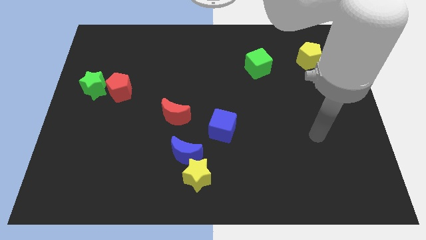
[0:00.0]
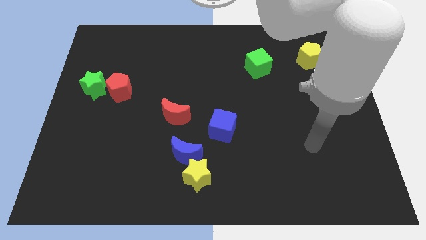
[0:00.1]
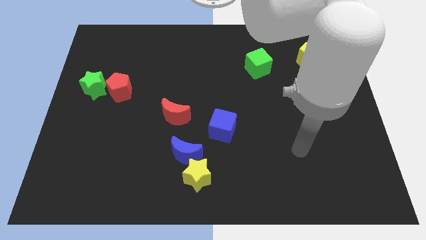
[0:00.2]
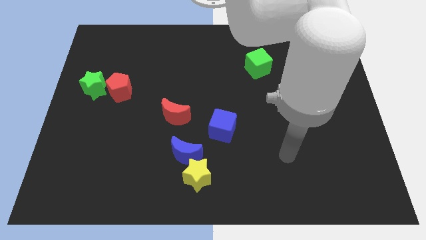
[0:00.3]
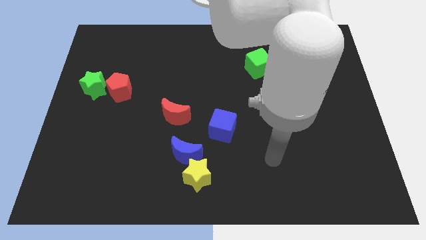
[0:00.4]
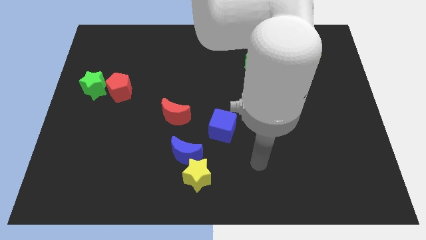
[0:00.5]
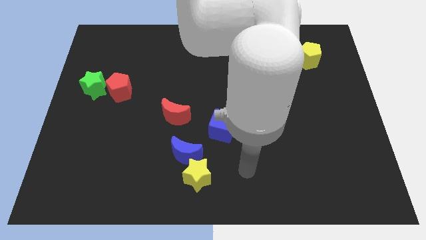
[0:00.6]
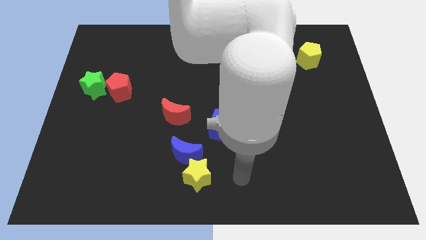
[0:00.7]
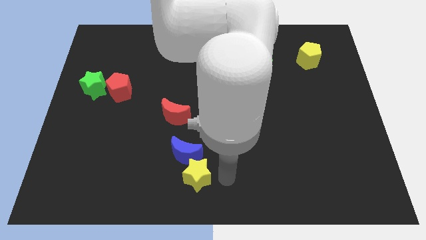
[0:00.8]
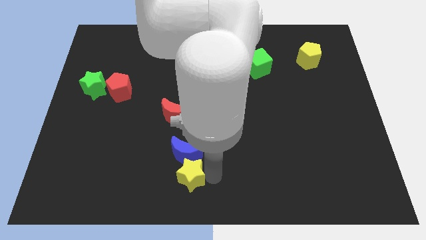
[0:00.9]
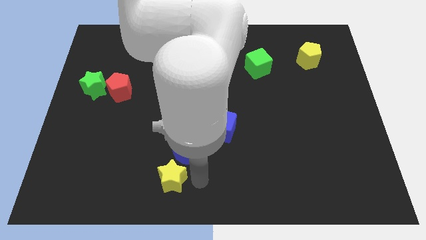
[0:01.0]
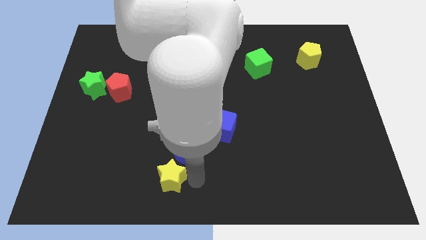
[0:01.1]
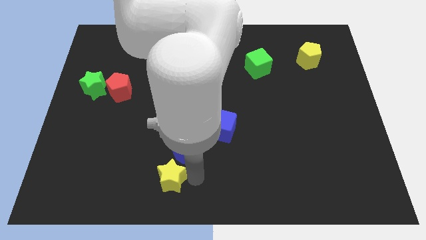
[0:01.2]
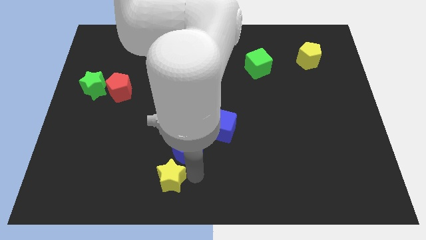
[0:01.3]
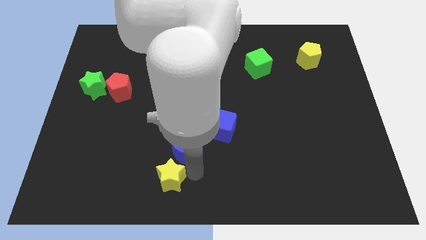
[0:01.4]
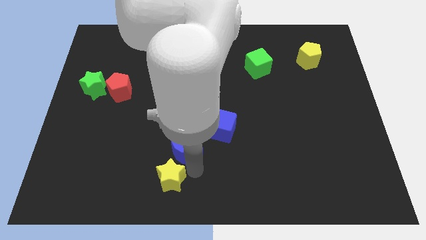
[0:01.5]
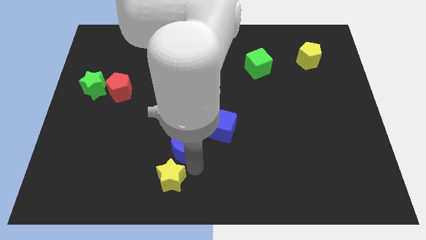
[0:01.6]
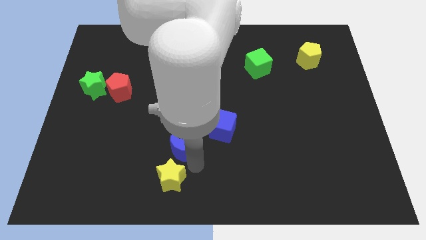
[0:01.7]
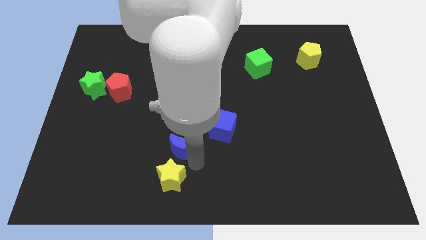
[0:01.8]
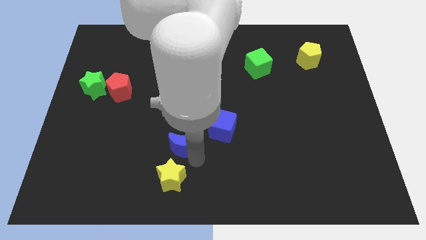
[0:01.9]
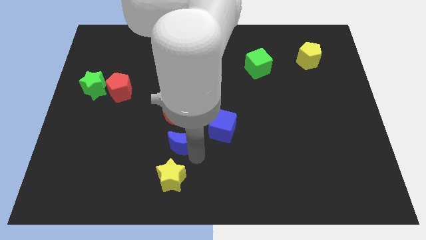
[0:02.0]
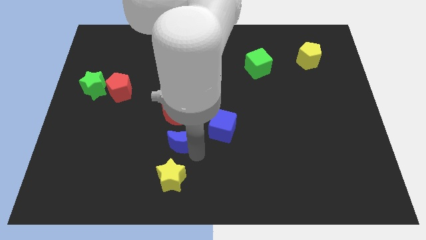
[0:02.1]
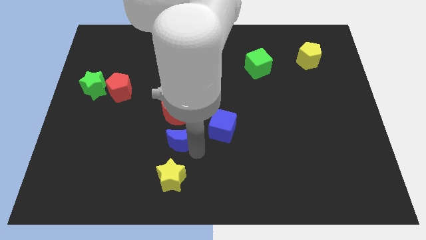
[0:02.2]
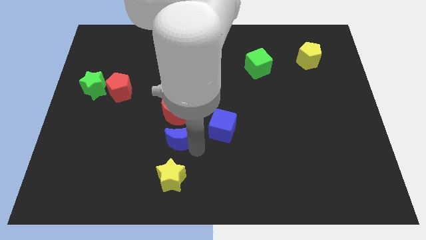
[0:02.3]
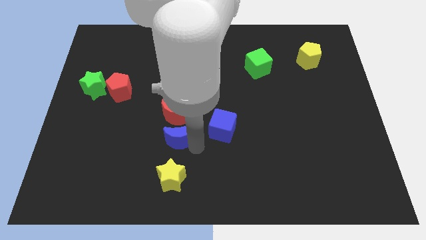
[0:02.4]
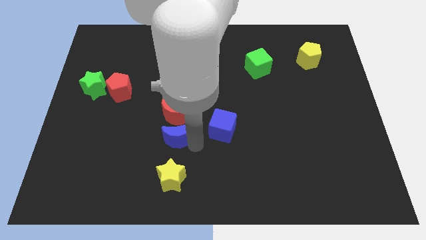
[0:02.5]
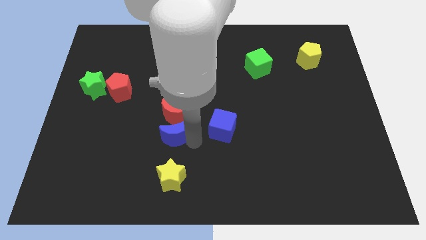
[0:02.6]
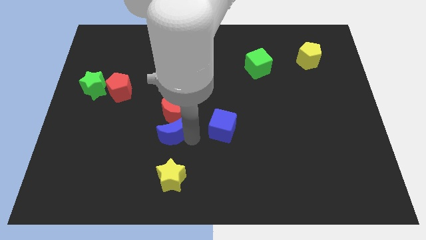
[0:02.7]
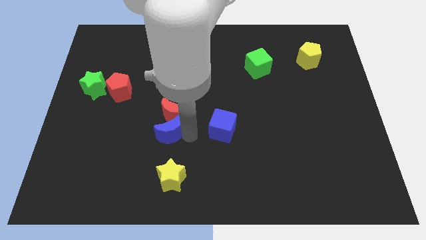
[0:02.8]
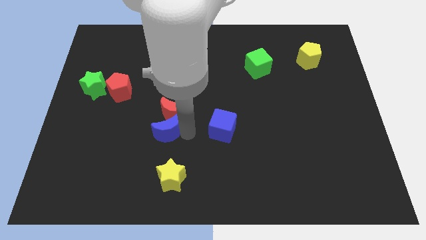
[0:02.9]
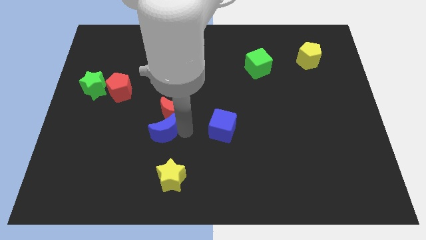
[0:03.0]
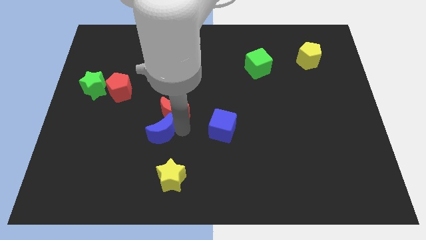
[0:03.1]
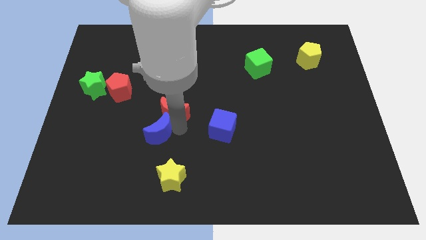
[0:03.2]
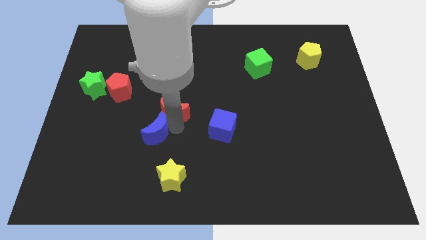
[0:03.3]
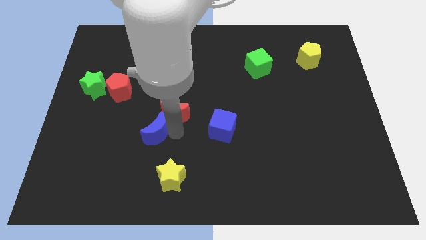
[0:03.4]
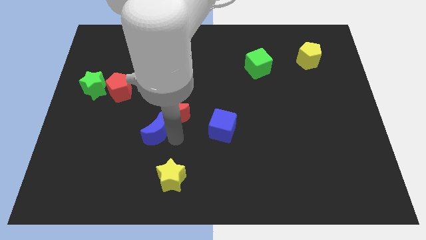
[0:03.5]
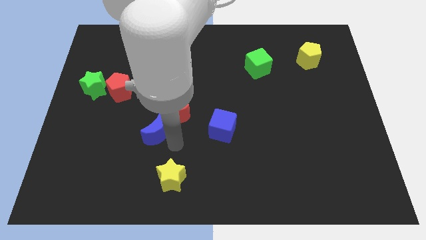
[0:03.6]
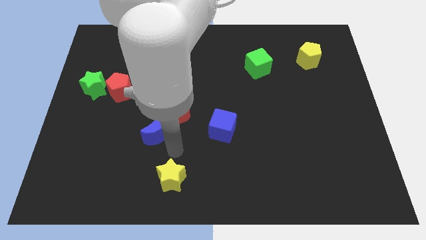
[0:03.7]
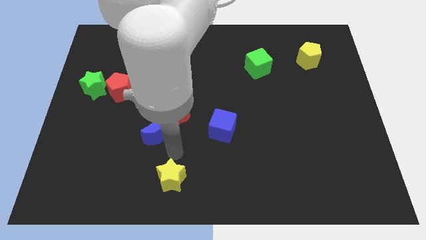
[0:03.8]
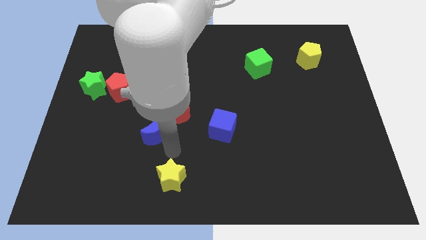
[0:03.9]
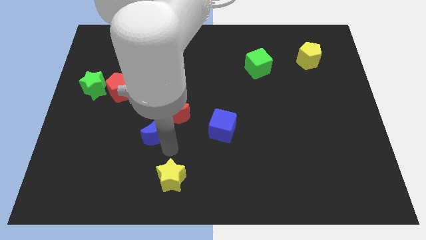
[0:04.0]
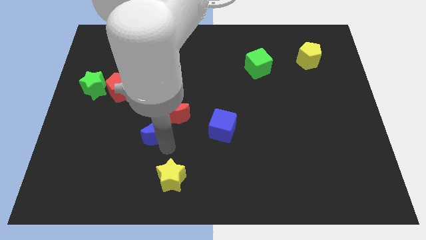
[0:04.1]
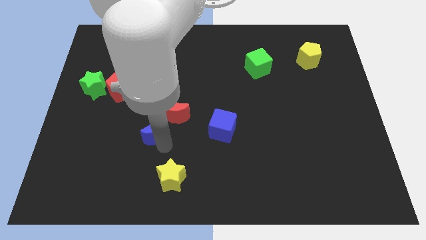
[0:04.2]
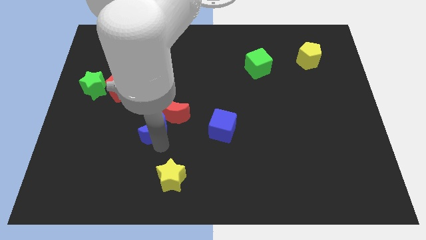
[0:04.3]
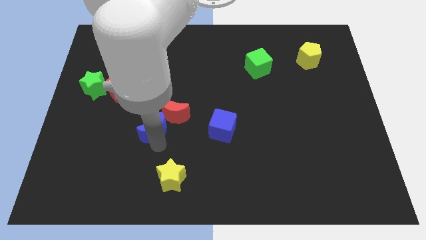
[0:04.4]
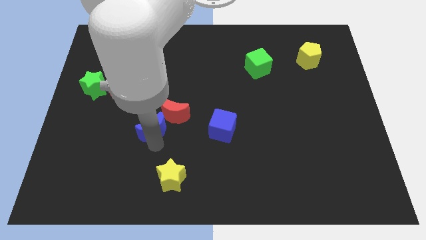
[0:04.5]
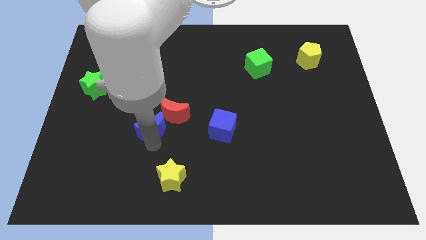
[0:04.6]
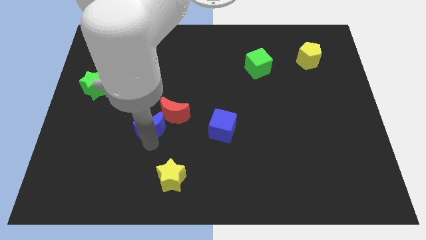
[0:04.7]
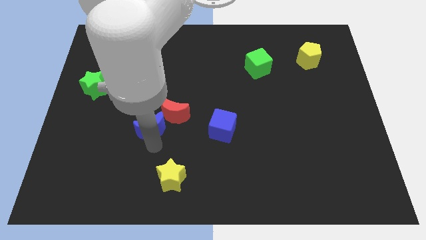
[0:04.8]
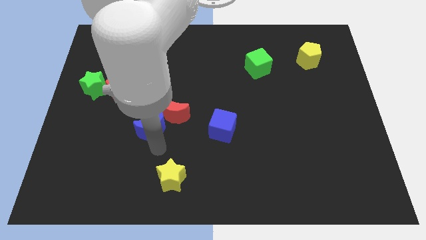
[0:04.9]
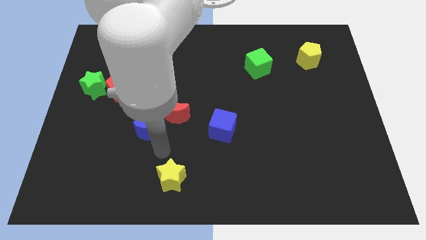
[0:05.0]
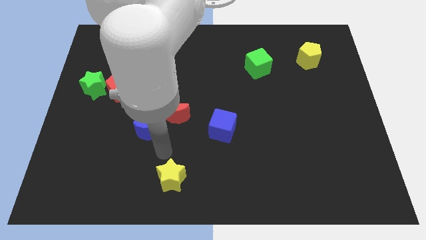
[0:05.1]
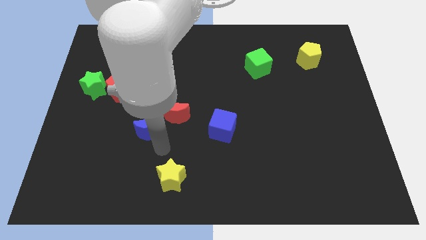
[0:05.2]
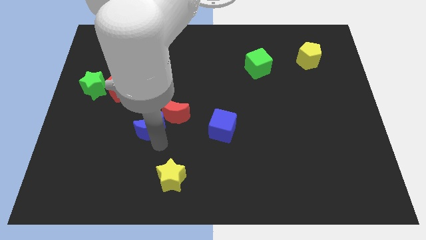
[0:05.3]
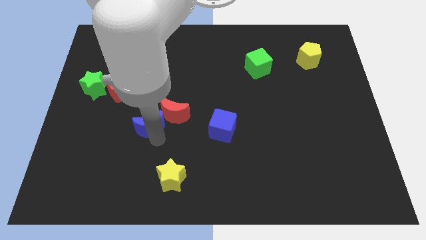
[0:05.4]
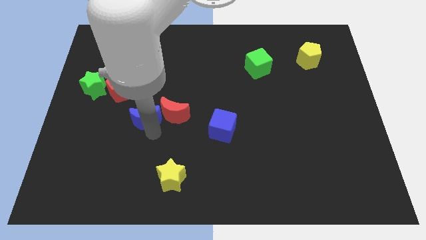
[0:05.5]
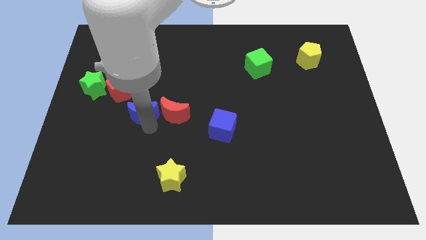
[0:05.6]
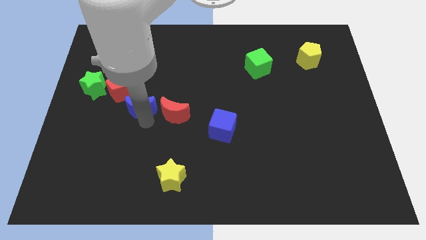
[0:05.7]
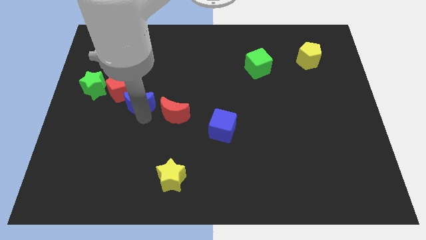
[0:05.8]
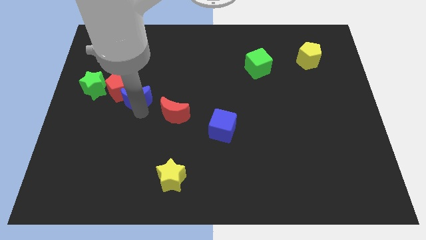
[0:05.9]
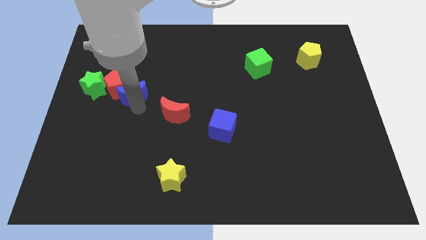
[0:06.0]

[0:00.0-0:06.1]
slide the blue moon upwards and to the left diagonally

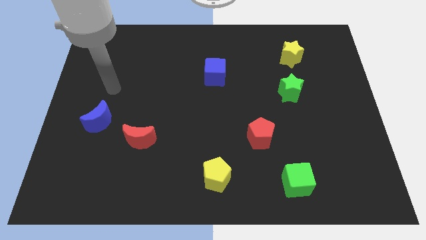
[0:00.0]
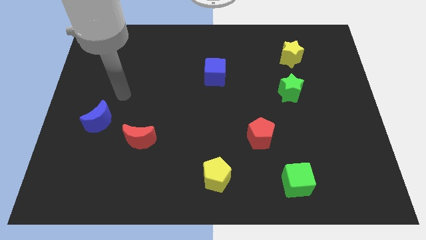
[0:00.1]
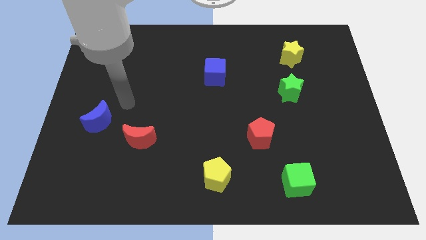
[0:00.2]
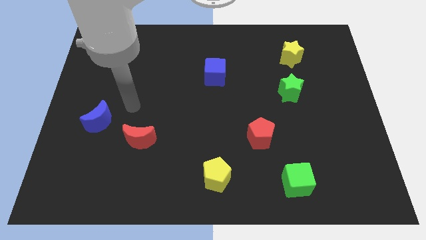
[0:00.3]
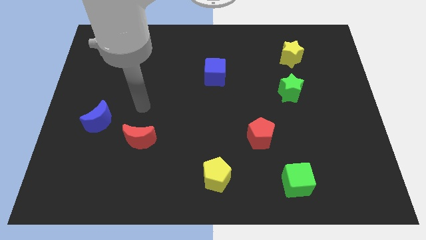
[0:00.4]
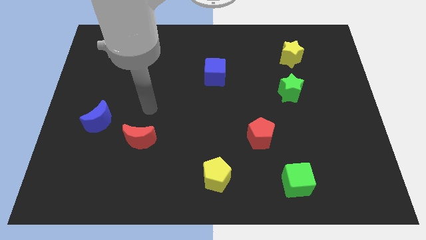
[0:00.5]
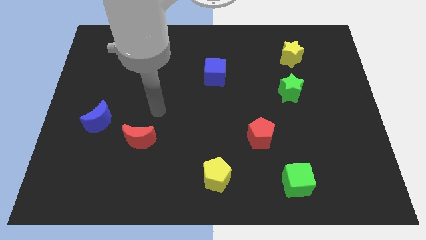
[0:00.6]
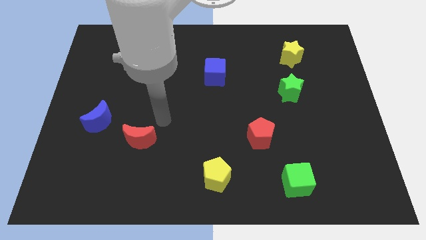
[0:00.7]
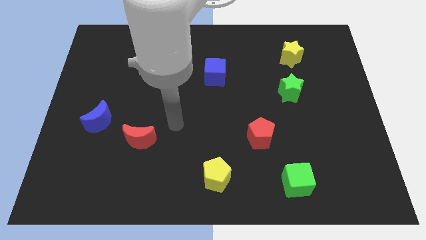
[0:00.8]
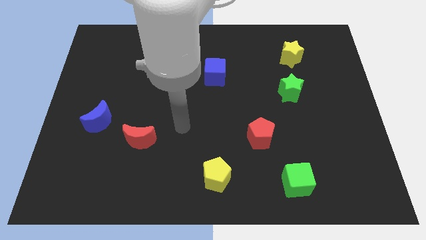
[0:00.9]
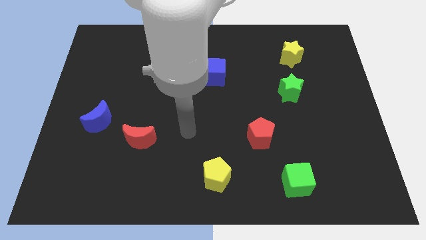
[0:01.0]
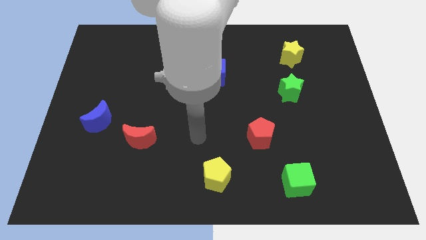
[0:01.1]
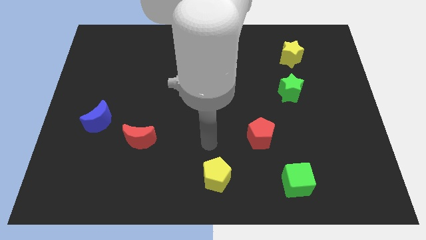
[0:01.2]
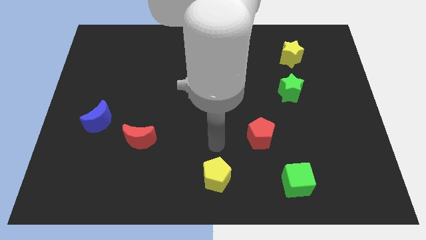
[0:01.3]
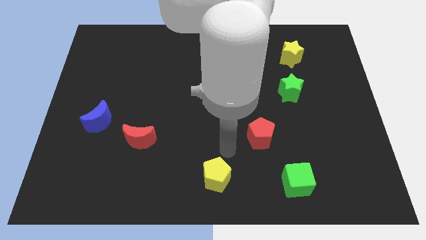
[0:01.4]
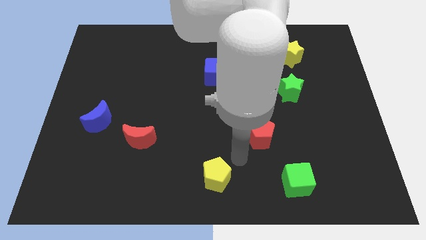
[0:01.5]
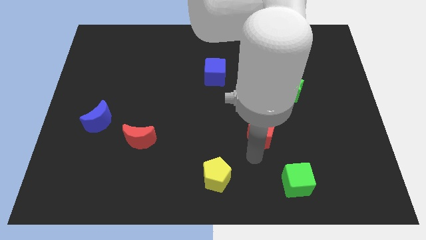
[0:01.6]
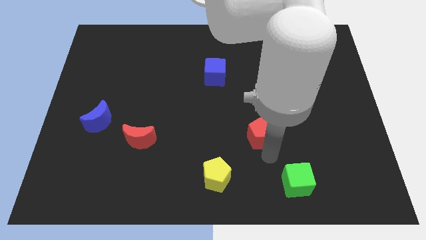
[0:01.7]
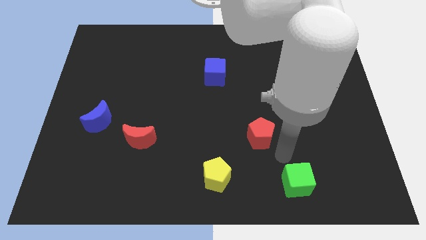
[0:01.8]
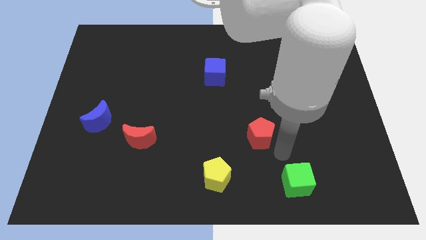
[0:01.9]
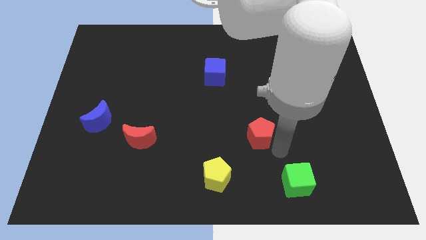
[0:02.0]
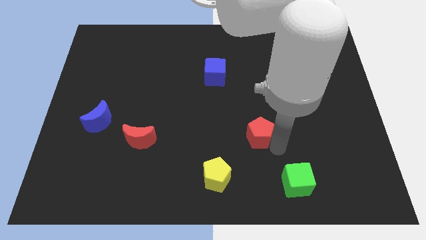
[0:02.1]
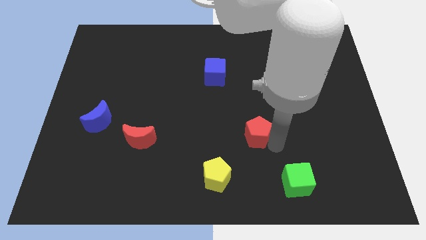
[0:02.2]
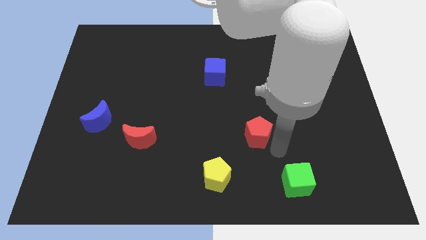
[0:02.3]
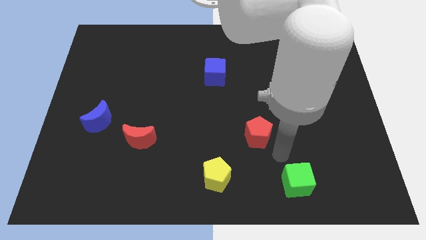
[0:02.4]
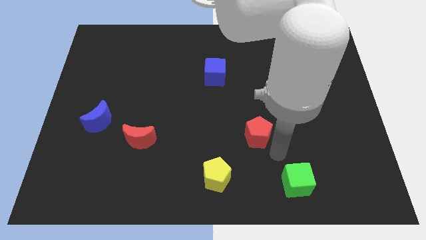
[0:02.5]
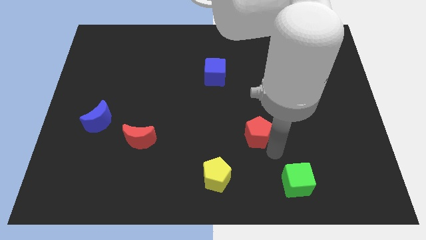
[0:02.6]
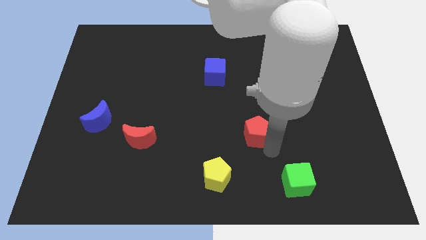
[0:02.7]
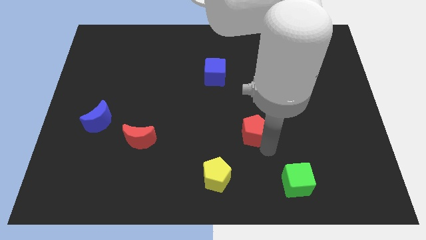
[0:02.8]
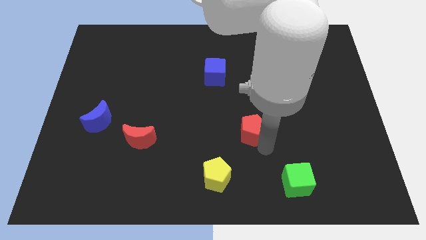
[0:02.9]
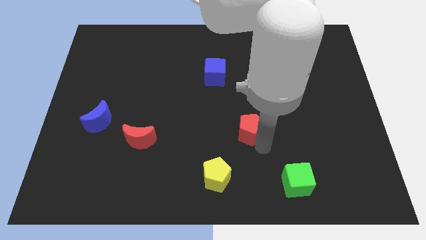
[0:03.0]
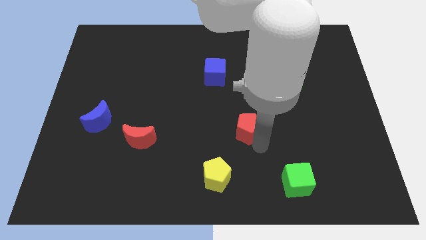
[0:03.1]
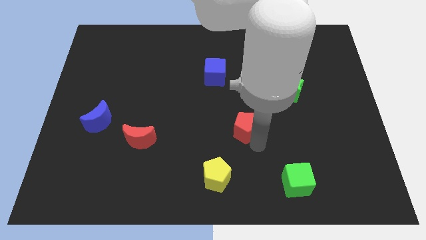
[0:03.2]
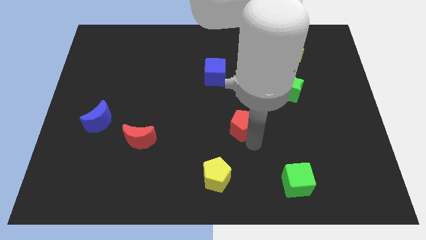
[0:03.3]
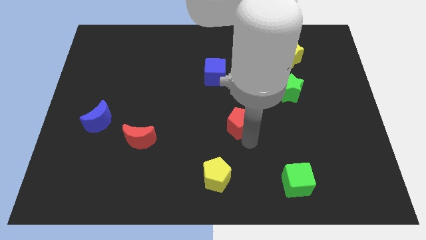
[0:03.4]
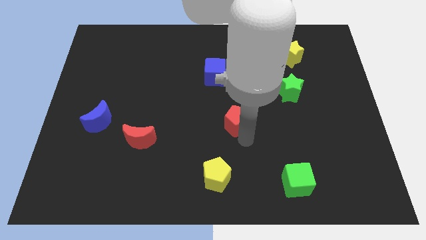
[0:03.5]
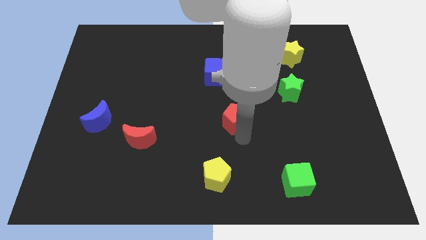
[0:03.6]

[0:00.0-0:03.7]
slide the red pentagon slightly upwards and left
